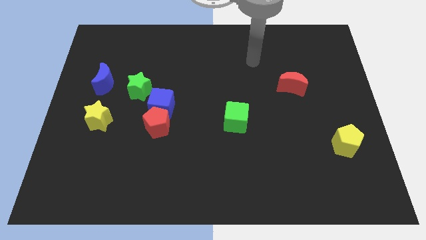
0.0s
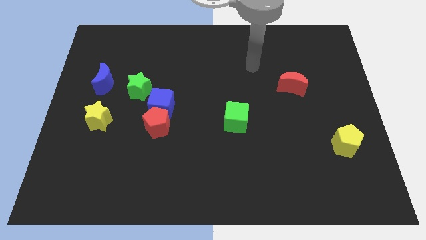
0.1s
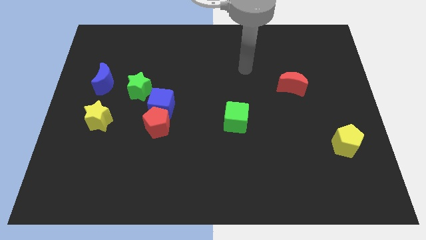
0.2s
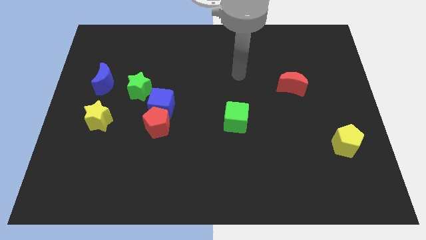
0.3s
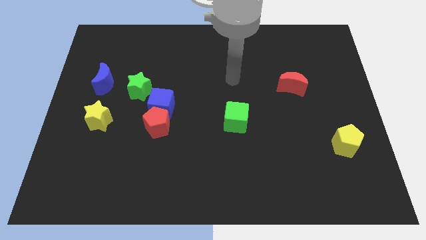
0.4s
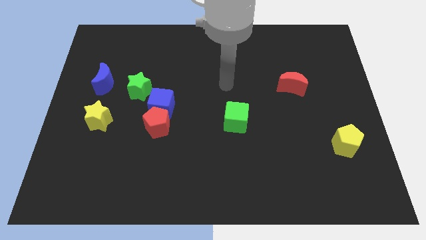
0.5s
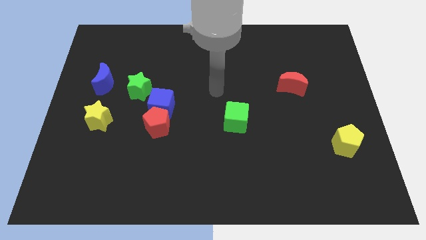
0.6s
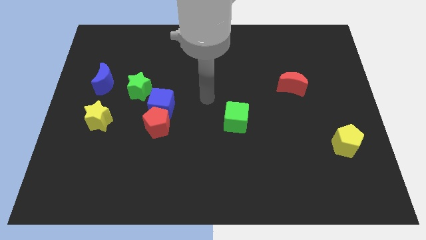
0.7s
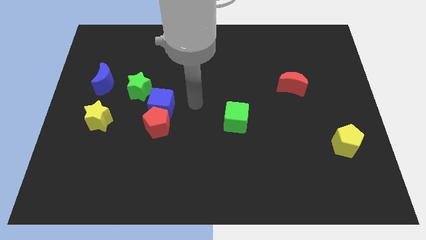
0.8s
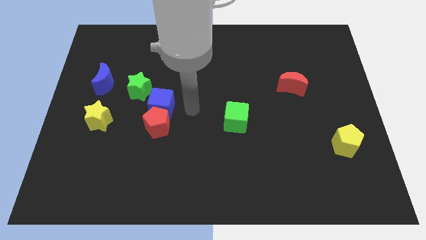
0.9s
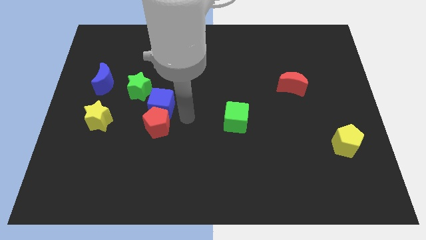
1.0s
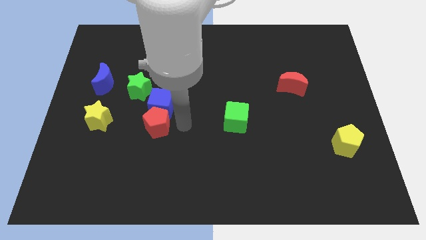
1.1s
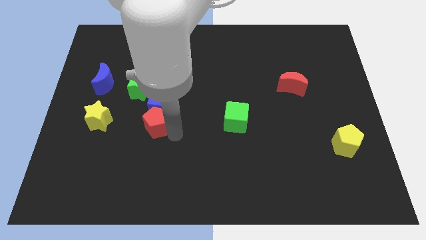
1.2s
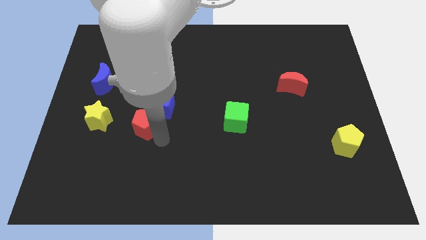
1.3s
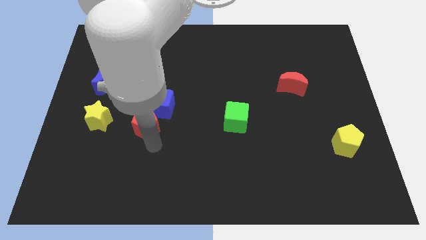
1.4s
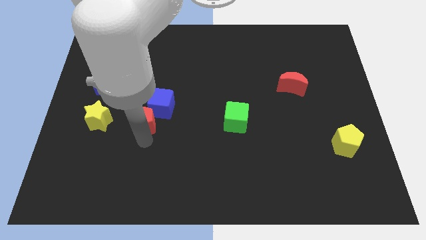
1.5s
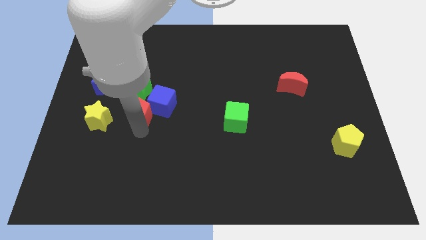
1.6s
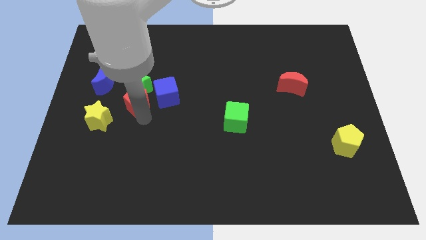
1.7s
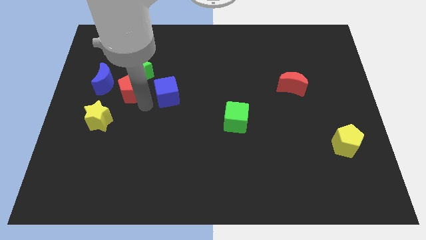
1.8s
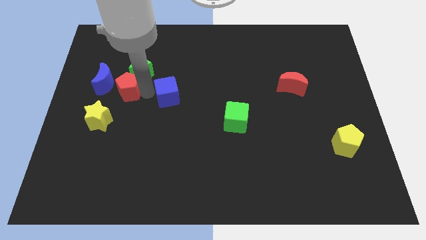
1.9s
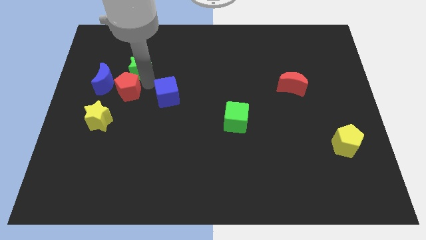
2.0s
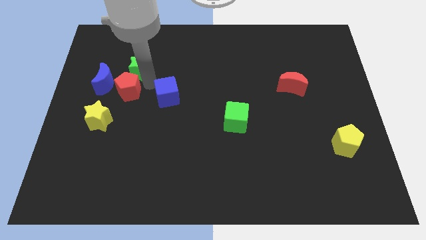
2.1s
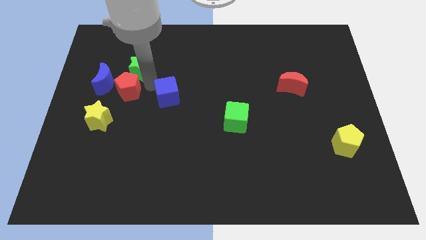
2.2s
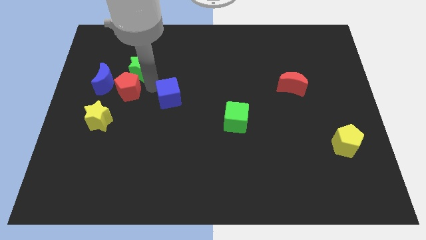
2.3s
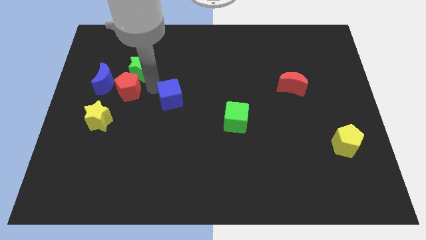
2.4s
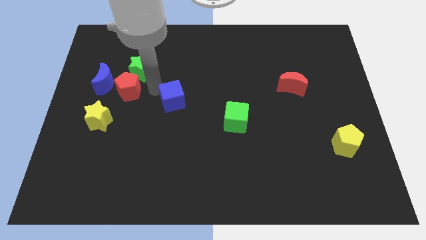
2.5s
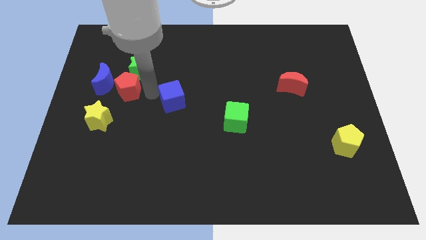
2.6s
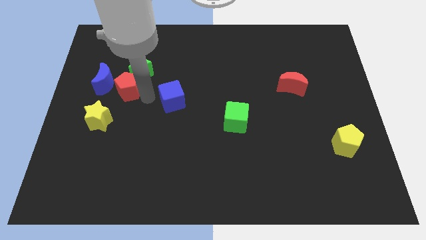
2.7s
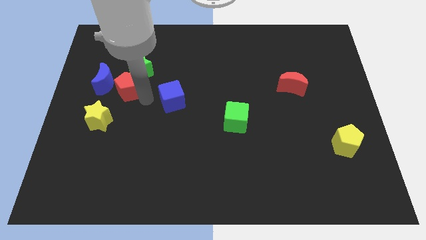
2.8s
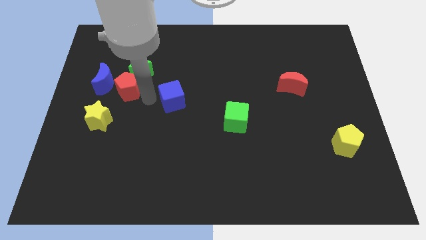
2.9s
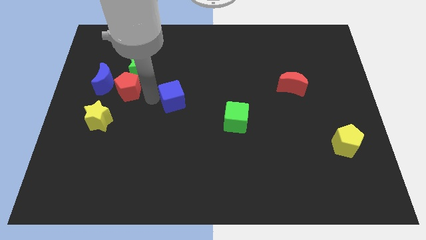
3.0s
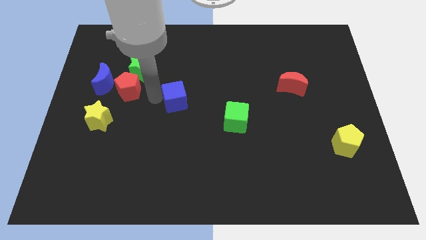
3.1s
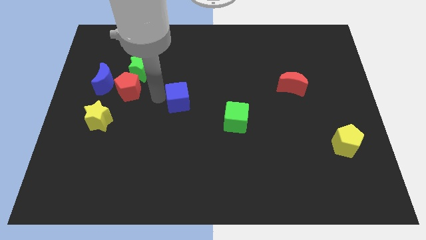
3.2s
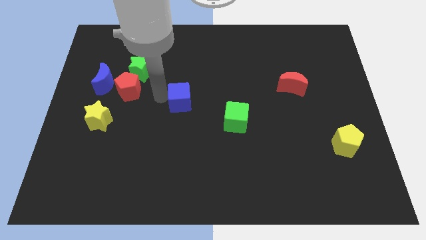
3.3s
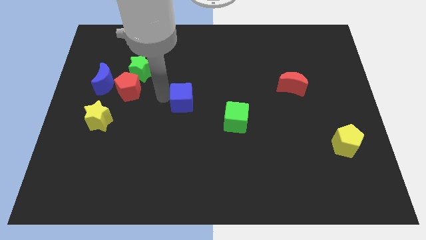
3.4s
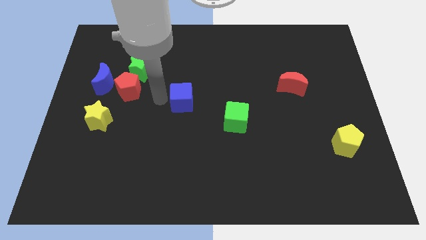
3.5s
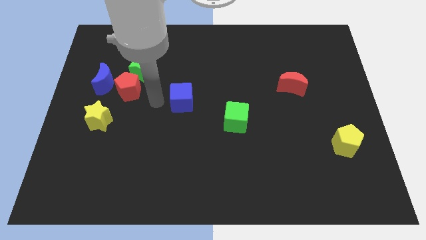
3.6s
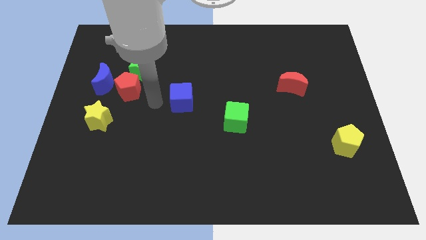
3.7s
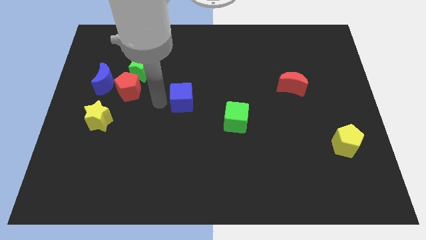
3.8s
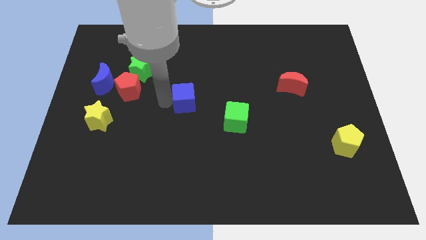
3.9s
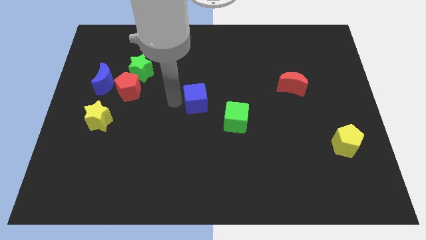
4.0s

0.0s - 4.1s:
push the blue cube a little to the right

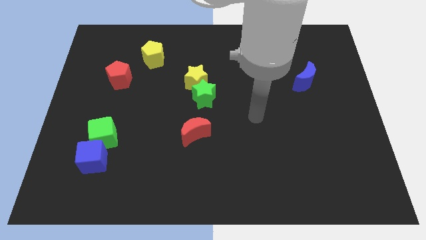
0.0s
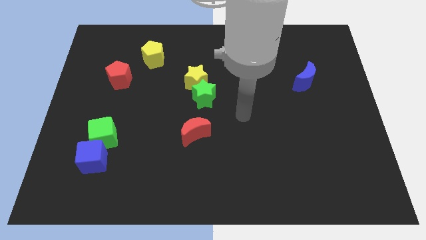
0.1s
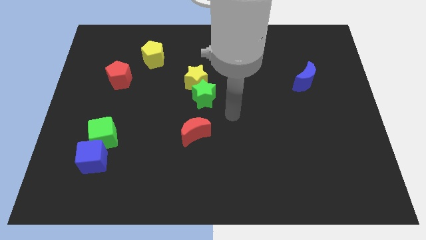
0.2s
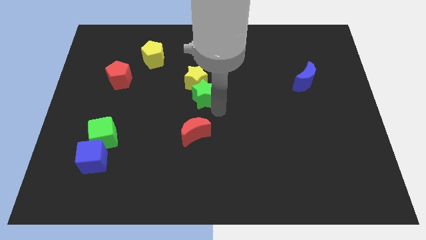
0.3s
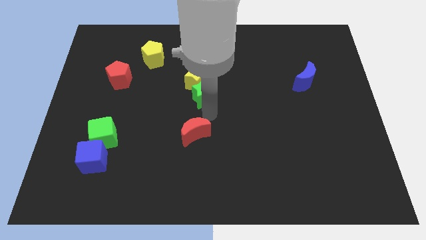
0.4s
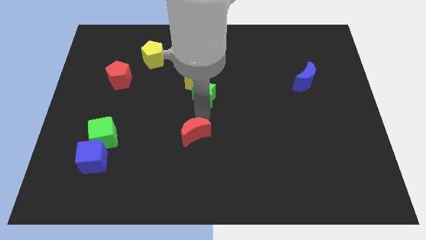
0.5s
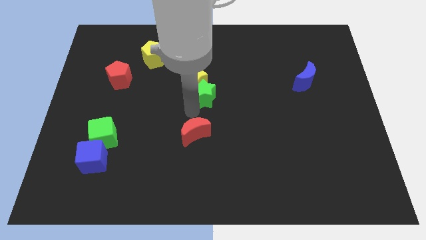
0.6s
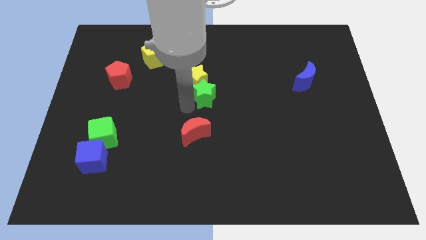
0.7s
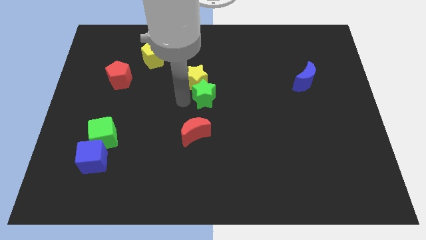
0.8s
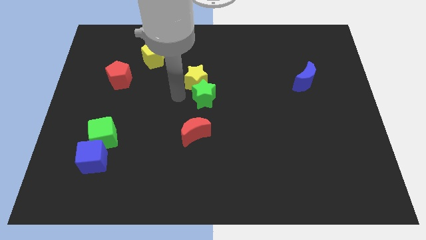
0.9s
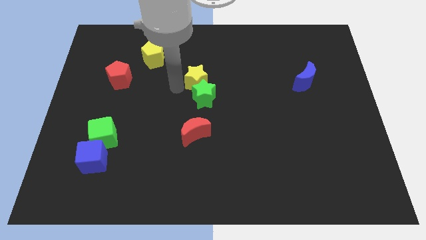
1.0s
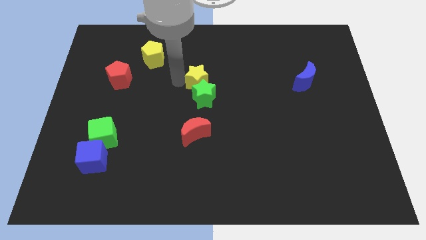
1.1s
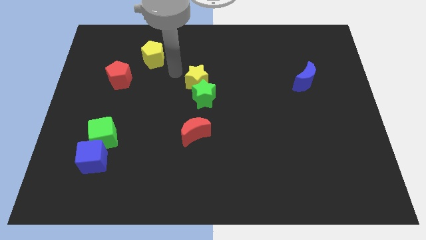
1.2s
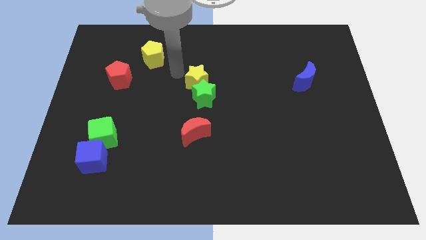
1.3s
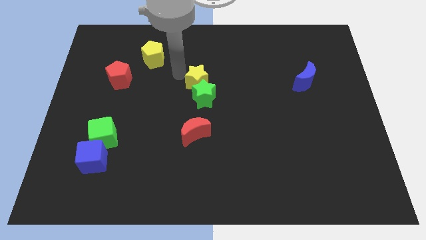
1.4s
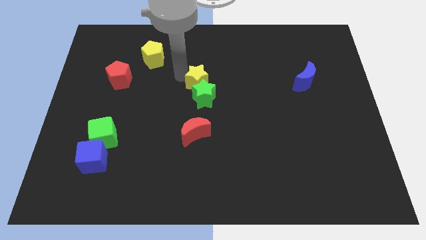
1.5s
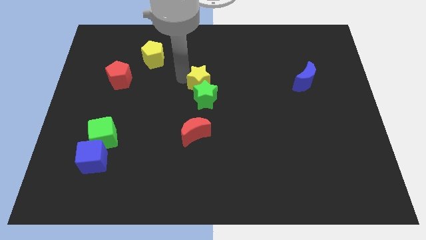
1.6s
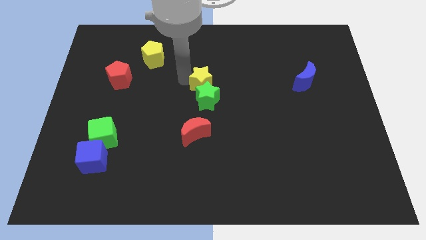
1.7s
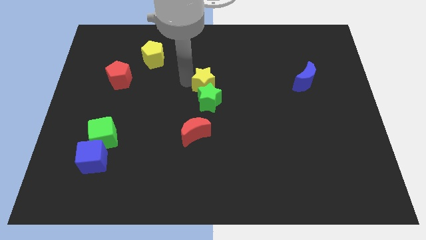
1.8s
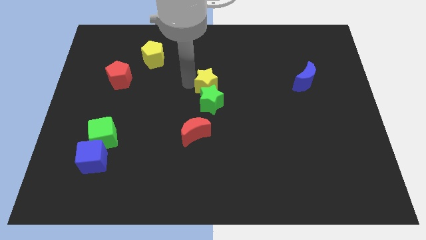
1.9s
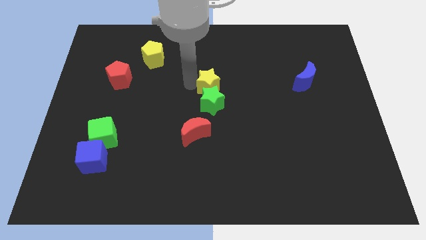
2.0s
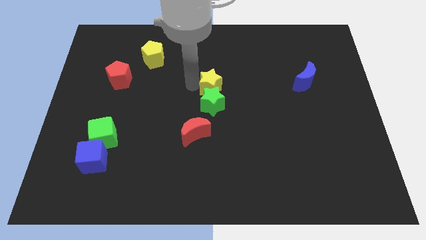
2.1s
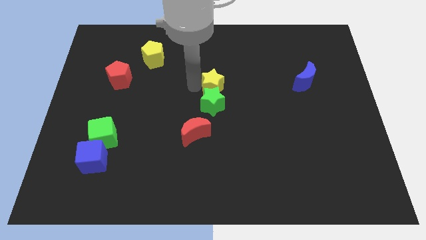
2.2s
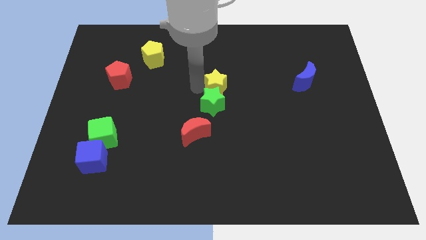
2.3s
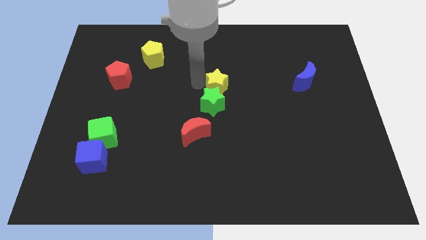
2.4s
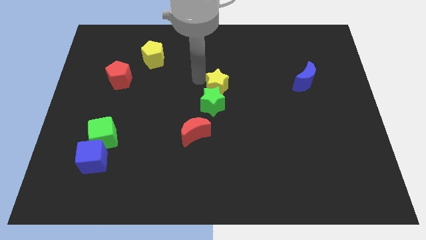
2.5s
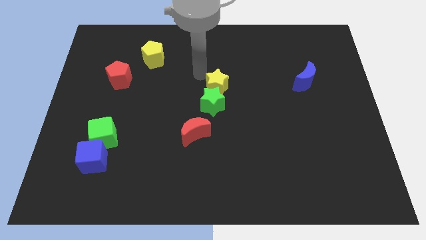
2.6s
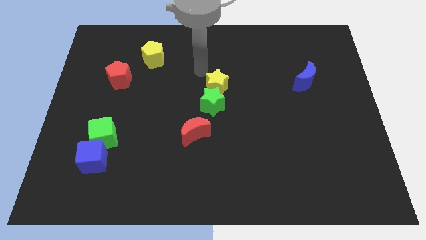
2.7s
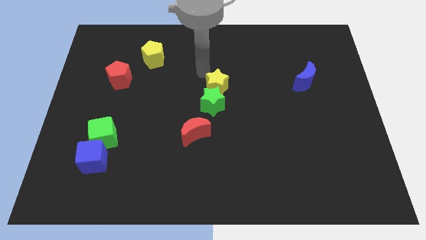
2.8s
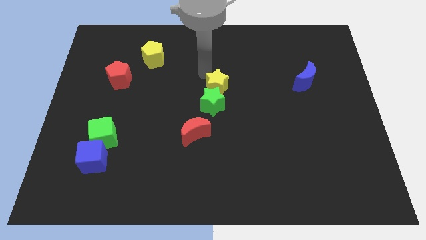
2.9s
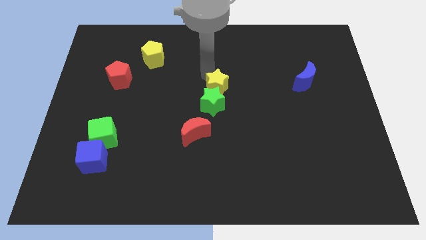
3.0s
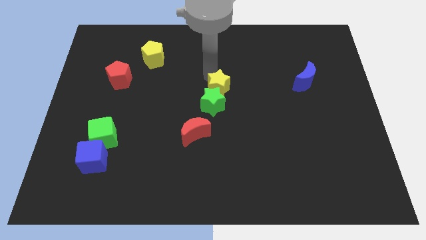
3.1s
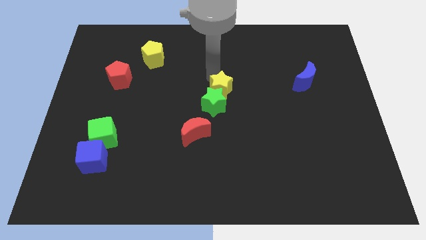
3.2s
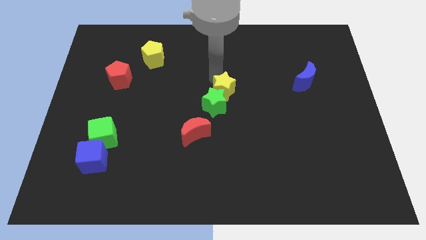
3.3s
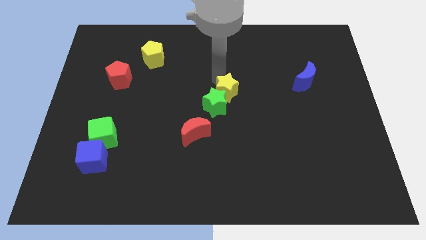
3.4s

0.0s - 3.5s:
slightly move the yellow star down and then right

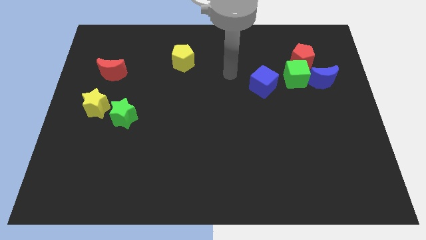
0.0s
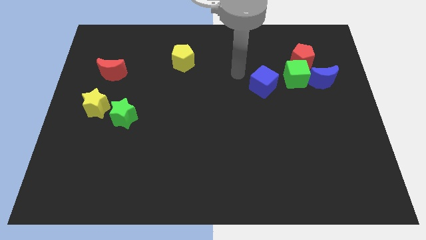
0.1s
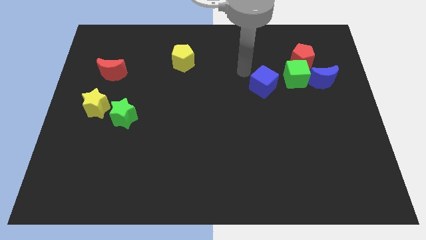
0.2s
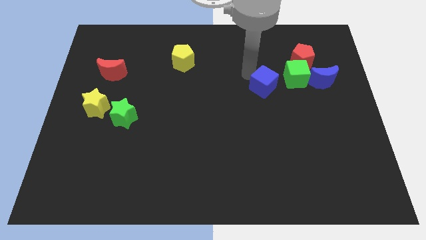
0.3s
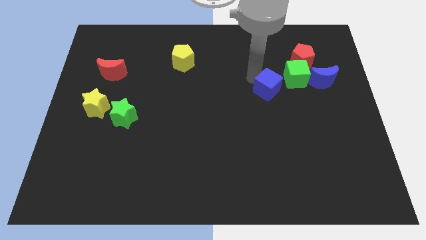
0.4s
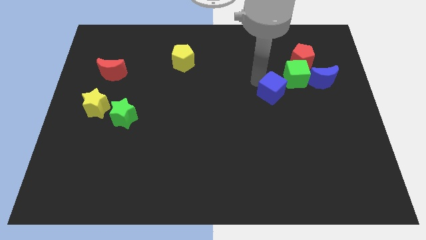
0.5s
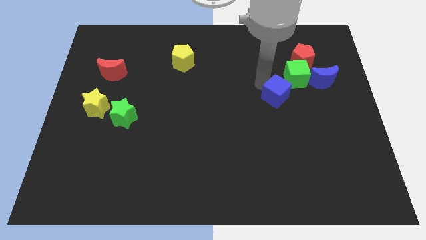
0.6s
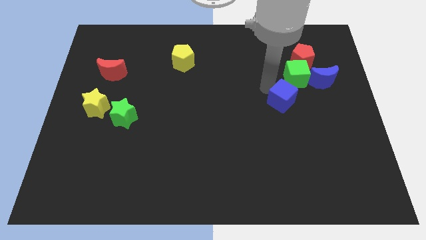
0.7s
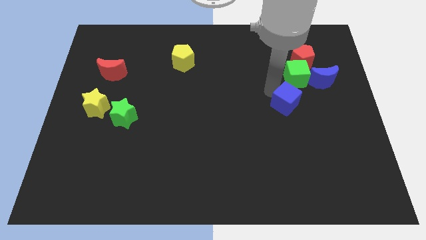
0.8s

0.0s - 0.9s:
slide the blue cube diagonally down and right somewhat
